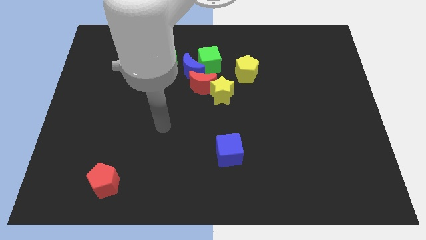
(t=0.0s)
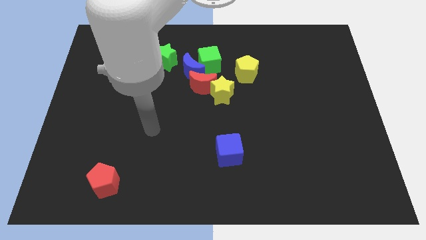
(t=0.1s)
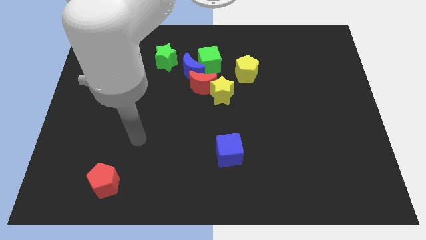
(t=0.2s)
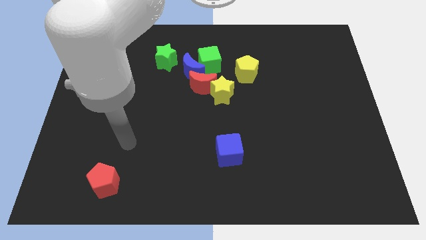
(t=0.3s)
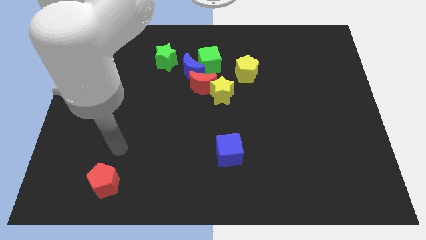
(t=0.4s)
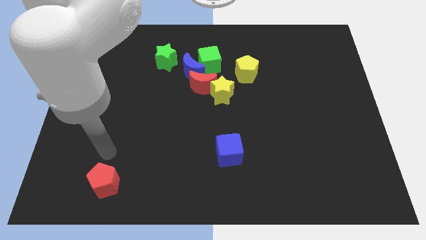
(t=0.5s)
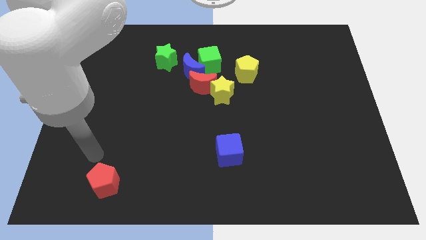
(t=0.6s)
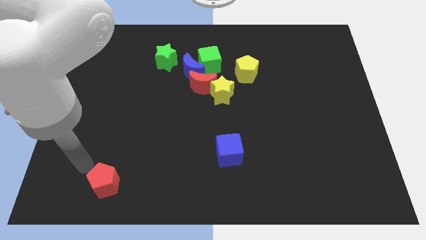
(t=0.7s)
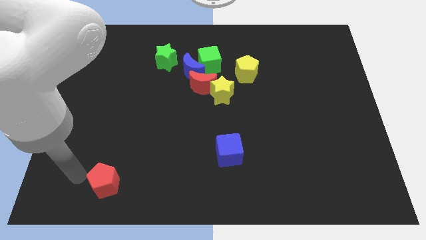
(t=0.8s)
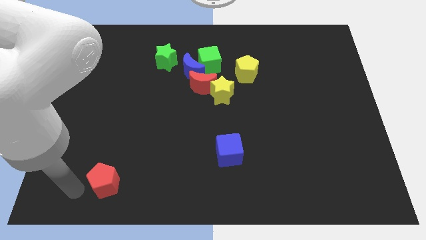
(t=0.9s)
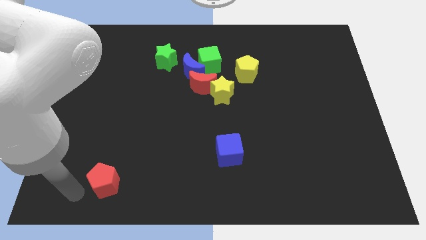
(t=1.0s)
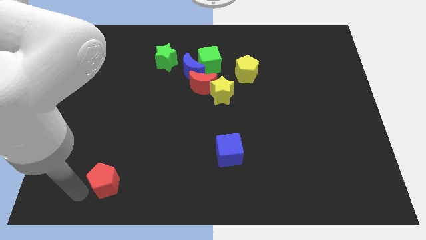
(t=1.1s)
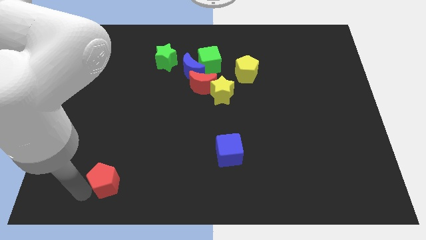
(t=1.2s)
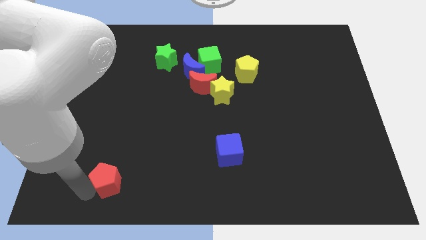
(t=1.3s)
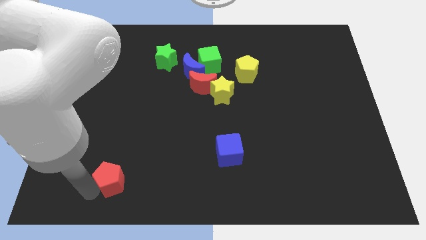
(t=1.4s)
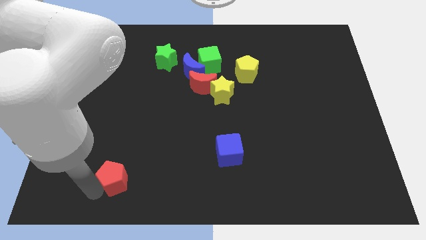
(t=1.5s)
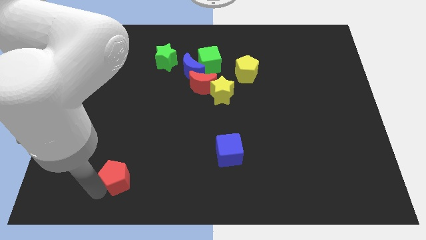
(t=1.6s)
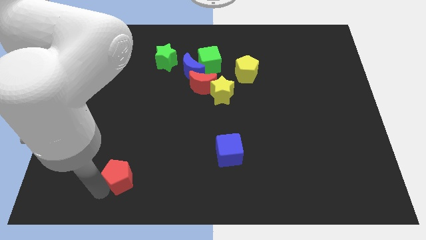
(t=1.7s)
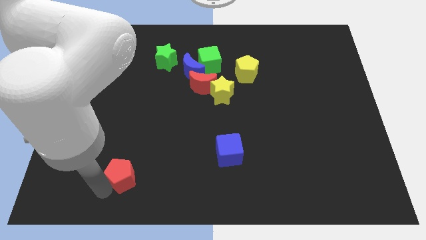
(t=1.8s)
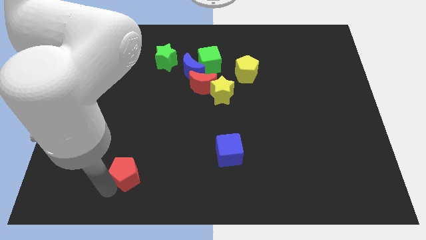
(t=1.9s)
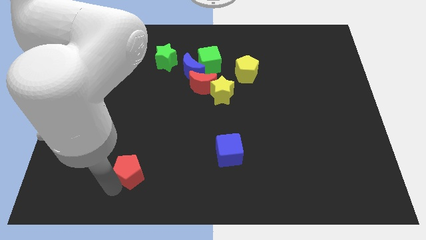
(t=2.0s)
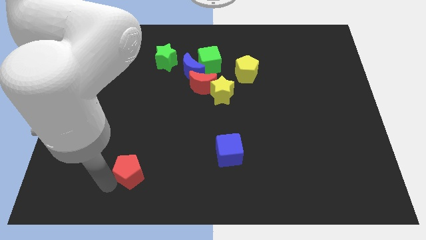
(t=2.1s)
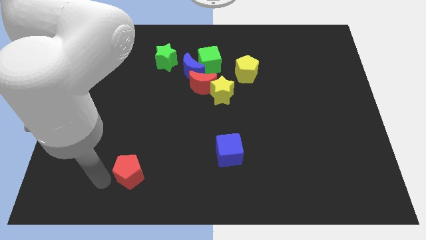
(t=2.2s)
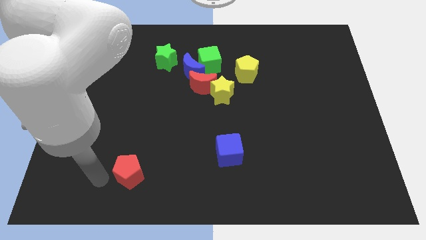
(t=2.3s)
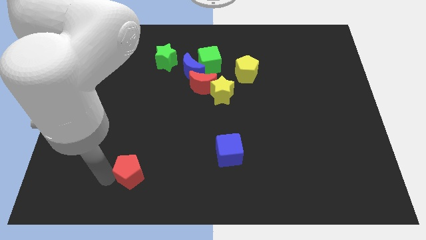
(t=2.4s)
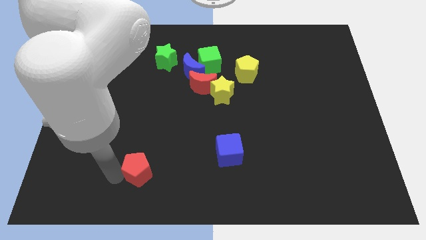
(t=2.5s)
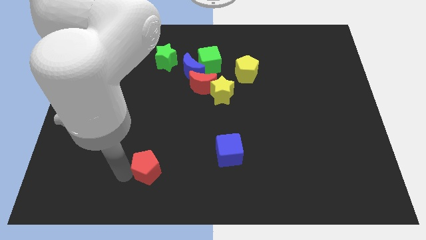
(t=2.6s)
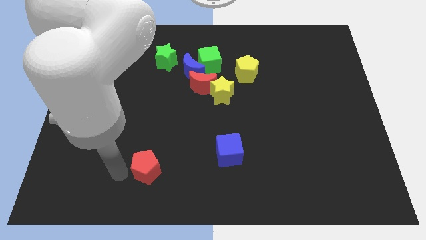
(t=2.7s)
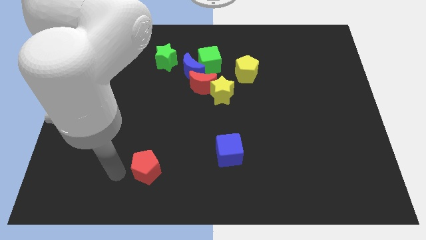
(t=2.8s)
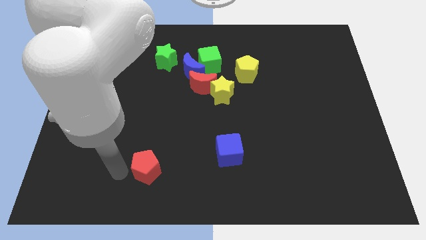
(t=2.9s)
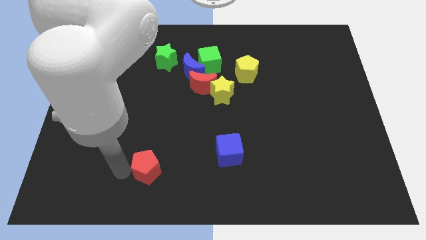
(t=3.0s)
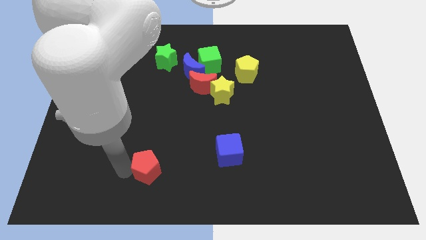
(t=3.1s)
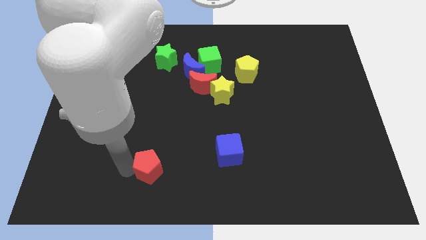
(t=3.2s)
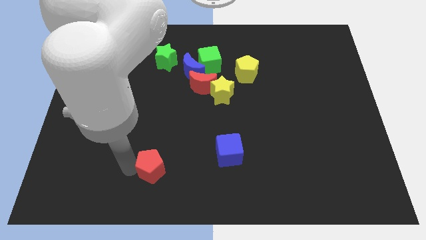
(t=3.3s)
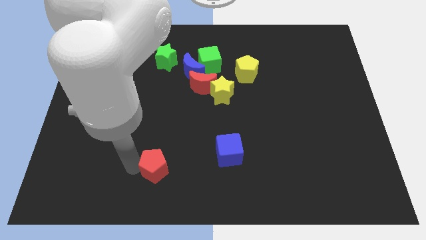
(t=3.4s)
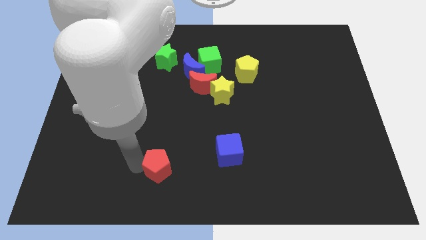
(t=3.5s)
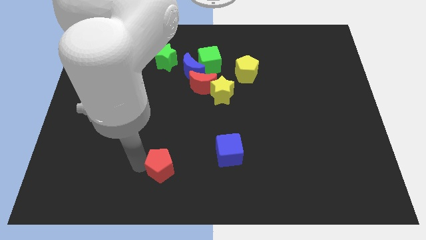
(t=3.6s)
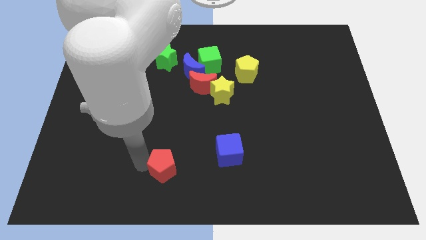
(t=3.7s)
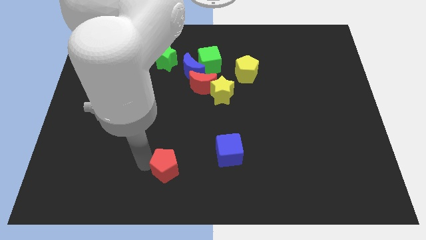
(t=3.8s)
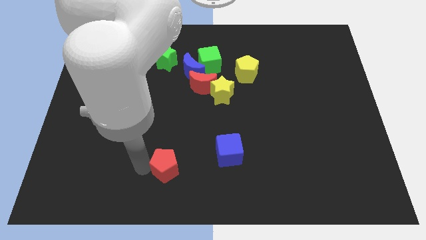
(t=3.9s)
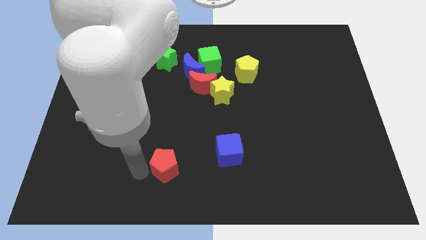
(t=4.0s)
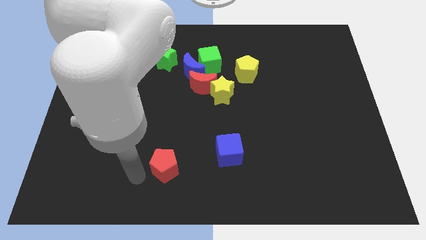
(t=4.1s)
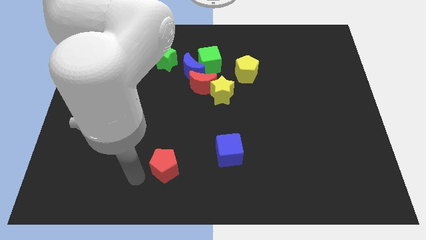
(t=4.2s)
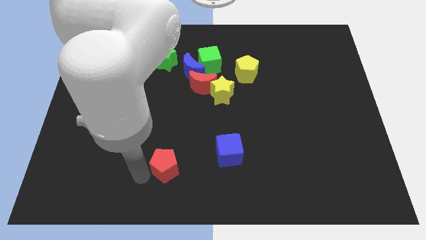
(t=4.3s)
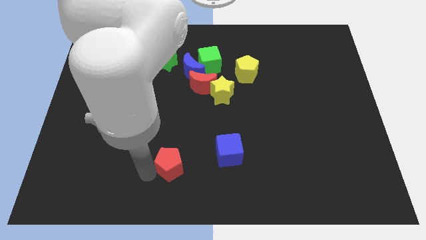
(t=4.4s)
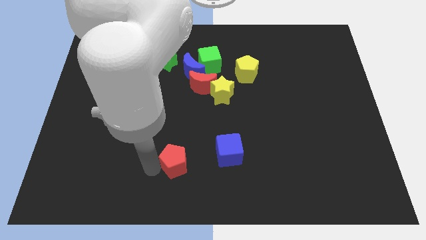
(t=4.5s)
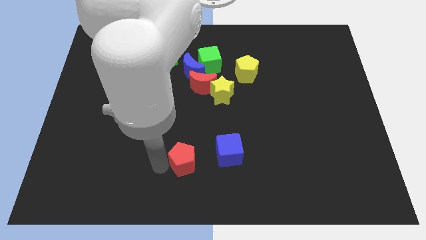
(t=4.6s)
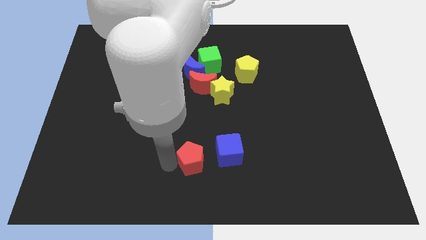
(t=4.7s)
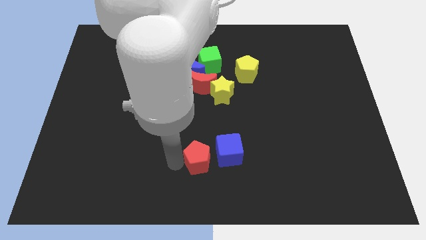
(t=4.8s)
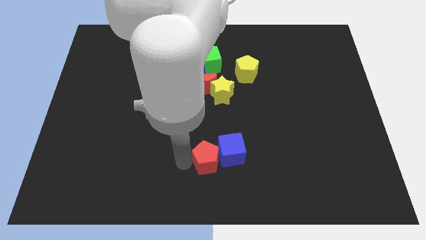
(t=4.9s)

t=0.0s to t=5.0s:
slide the red pentagon close to the blue cube

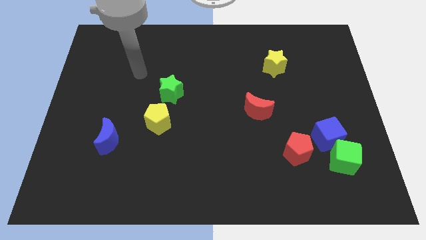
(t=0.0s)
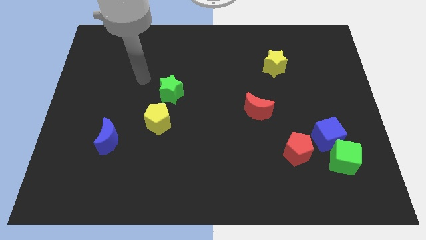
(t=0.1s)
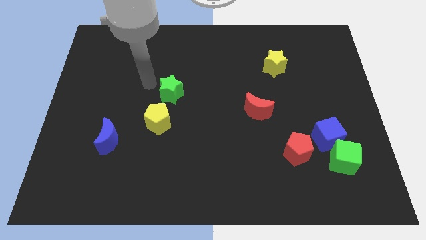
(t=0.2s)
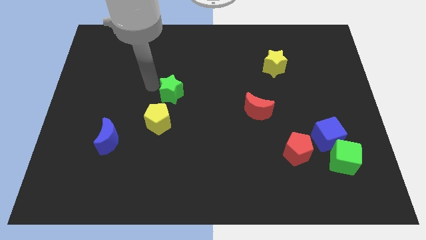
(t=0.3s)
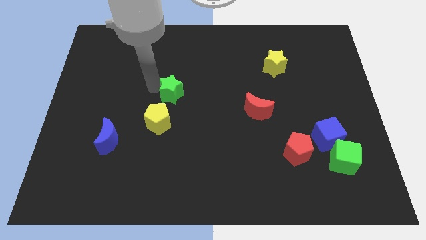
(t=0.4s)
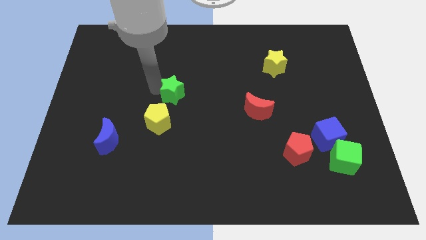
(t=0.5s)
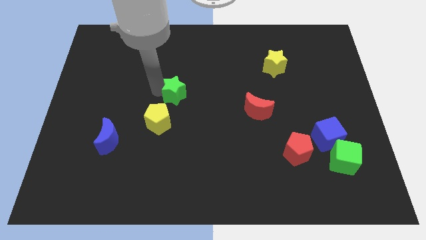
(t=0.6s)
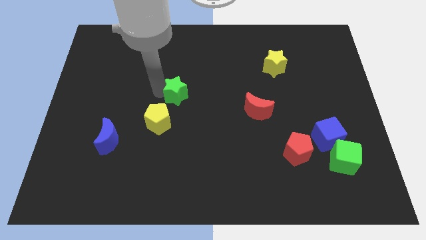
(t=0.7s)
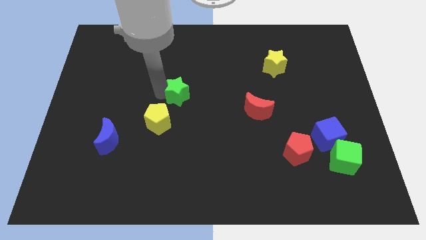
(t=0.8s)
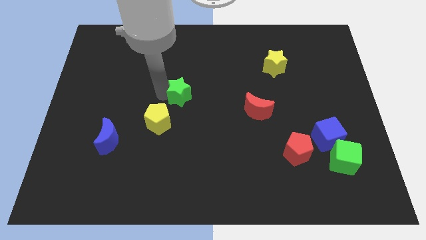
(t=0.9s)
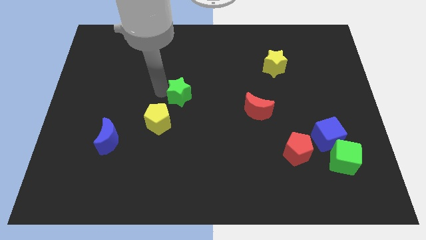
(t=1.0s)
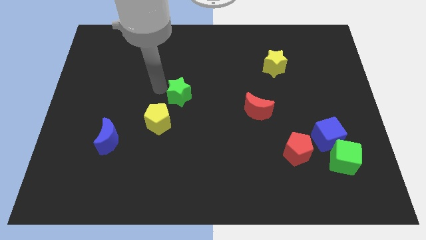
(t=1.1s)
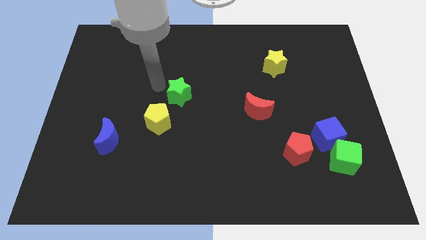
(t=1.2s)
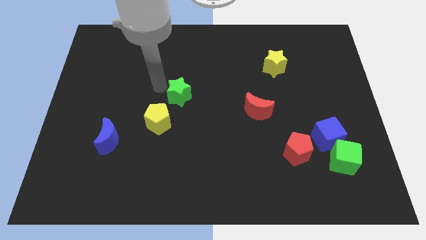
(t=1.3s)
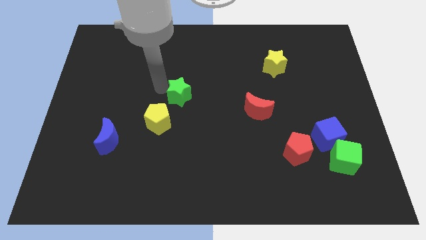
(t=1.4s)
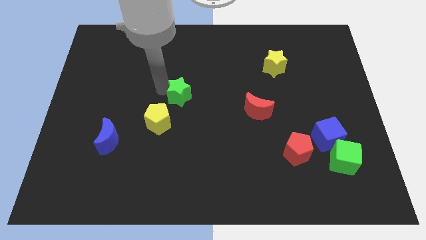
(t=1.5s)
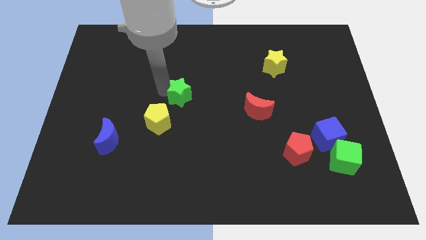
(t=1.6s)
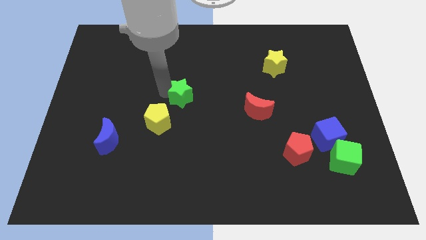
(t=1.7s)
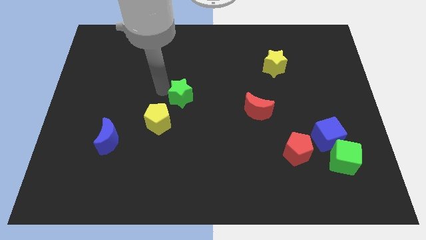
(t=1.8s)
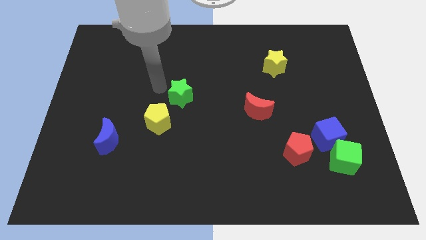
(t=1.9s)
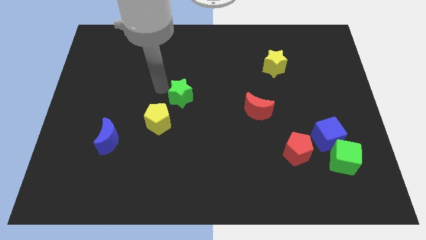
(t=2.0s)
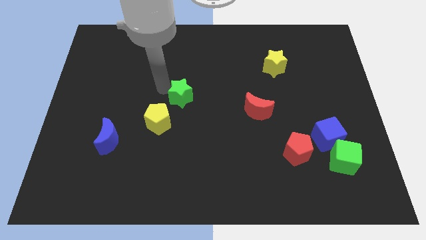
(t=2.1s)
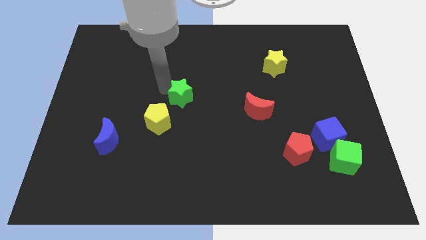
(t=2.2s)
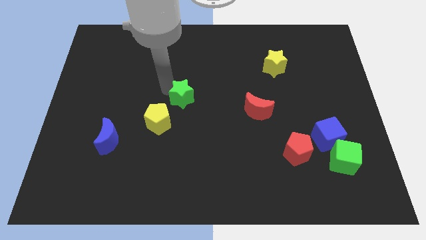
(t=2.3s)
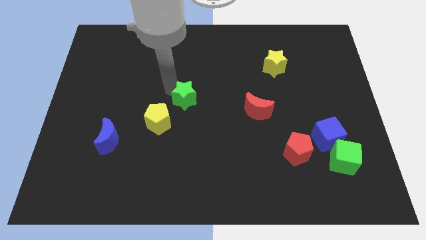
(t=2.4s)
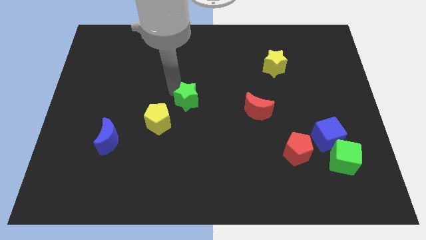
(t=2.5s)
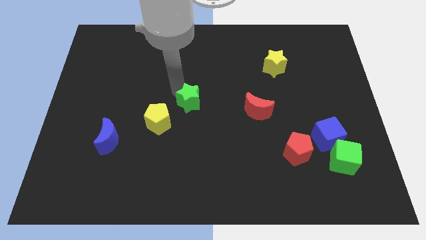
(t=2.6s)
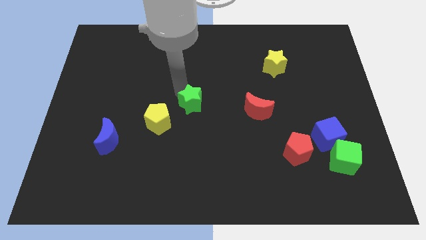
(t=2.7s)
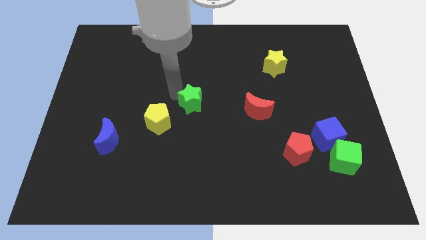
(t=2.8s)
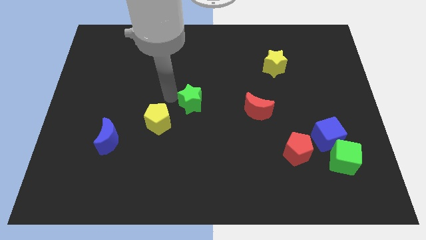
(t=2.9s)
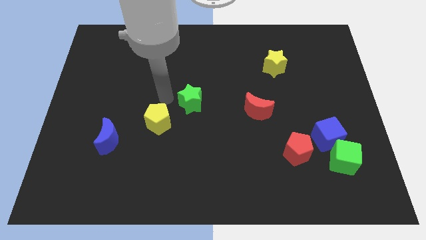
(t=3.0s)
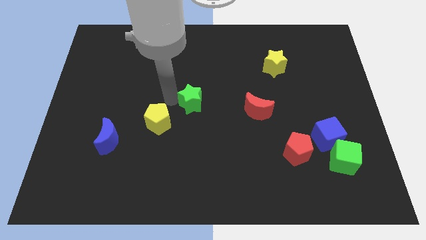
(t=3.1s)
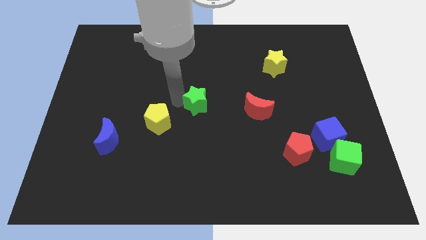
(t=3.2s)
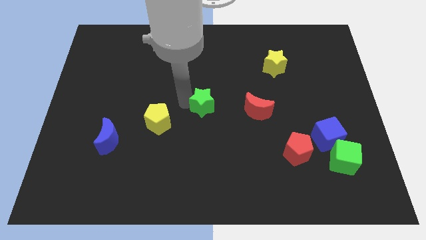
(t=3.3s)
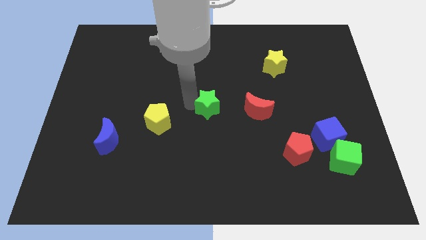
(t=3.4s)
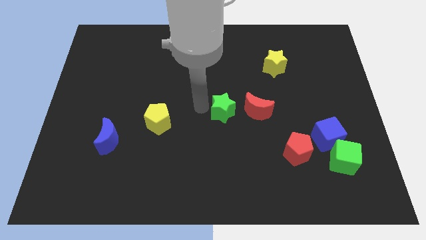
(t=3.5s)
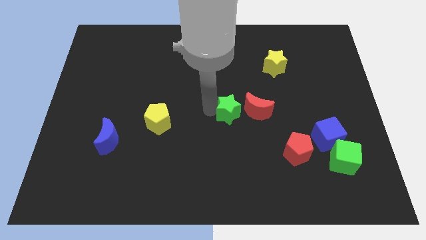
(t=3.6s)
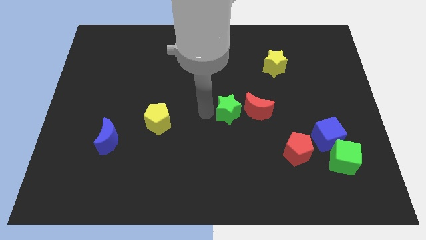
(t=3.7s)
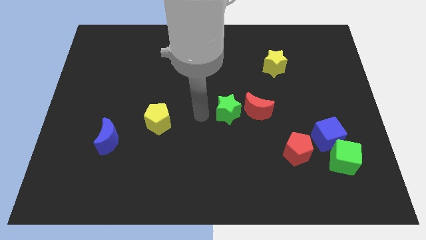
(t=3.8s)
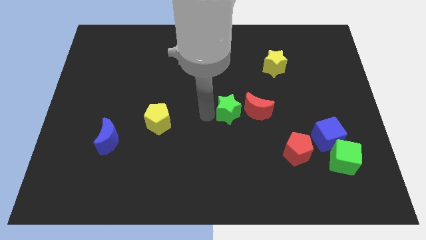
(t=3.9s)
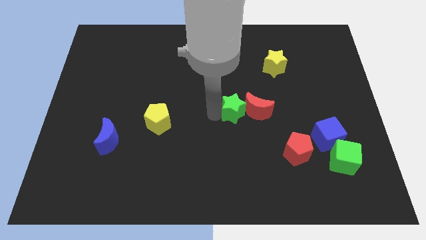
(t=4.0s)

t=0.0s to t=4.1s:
move the green star close to the red moon
